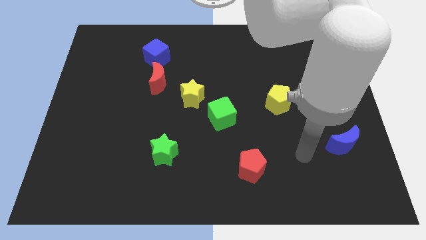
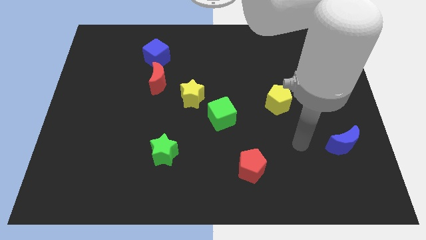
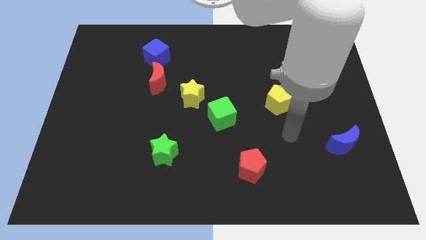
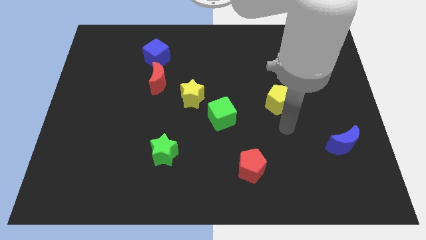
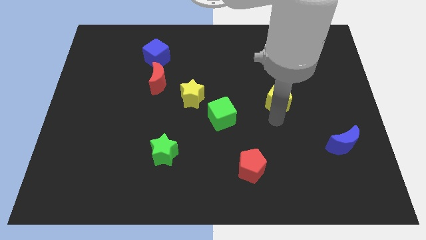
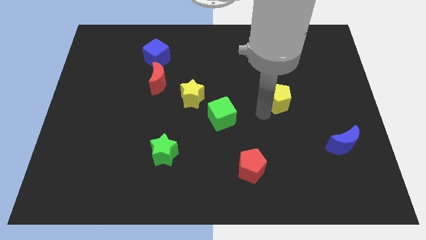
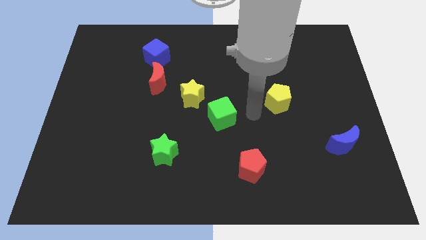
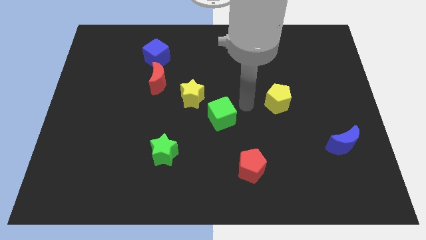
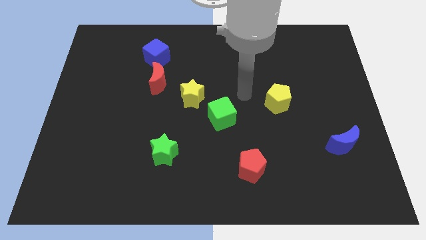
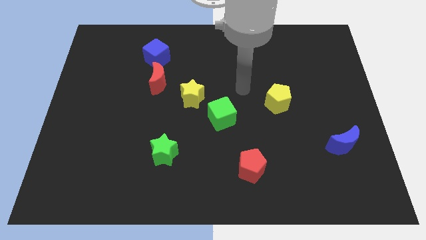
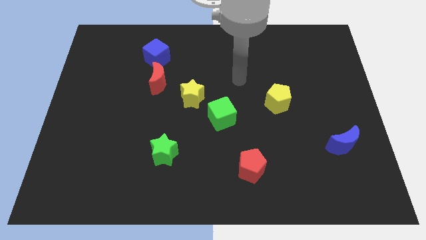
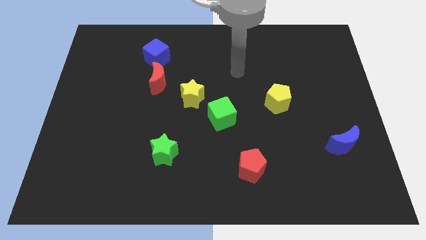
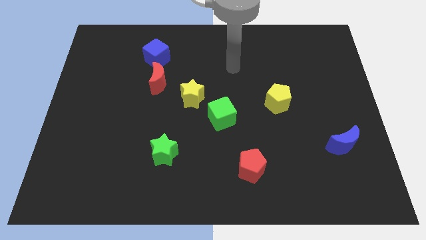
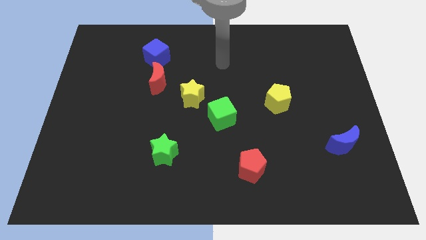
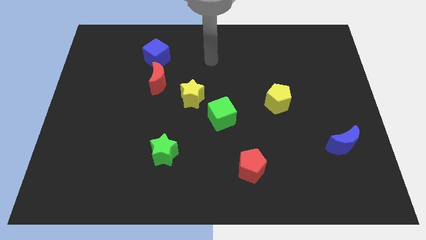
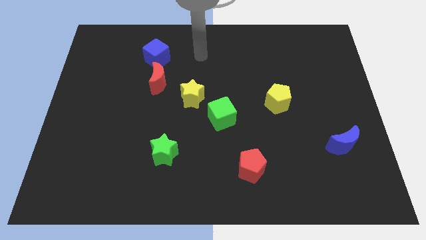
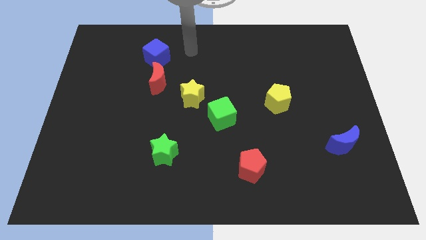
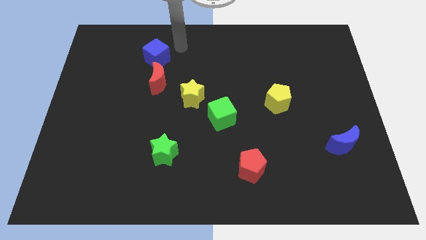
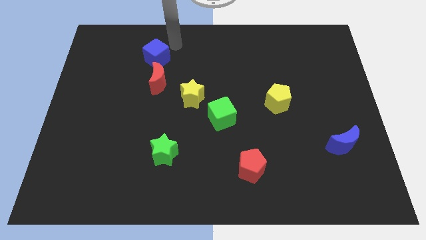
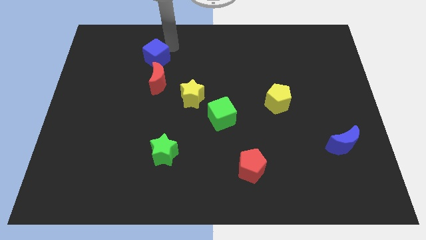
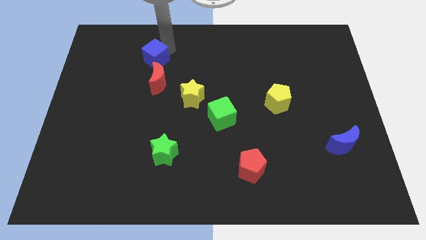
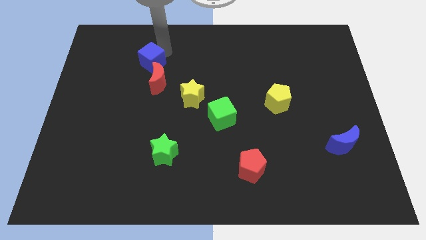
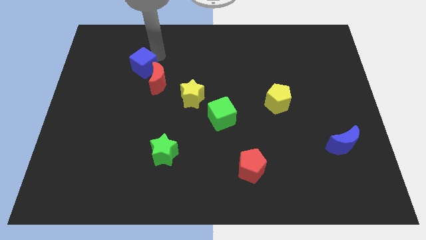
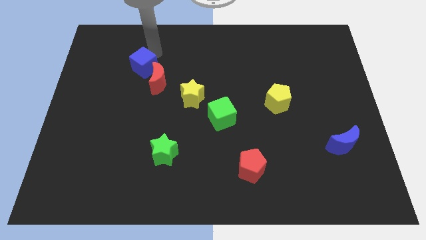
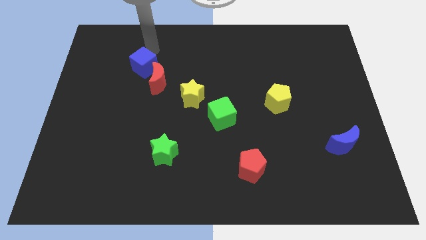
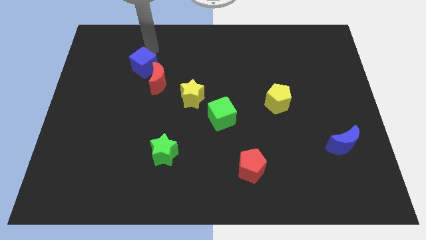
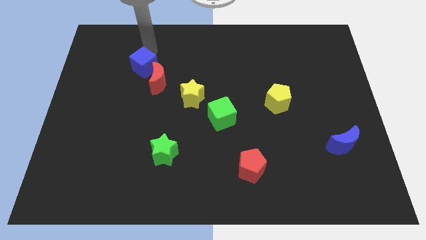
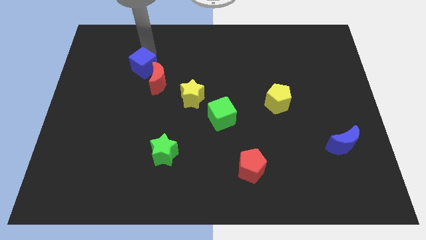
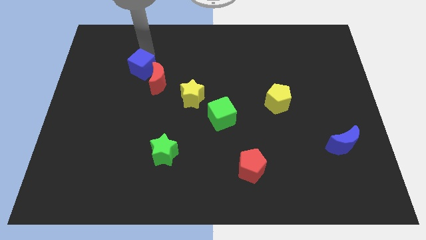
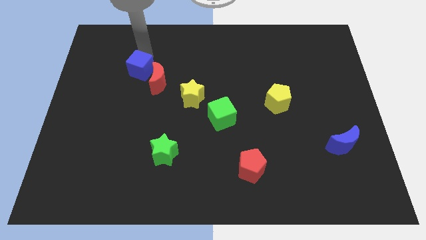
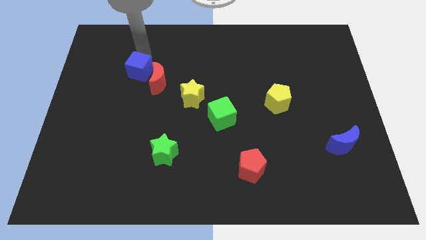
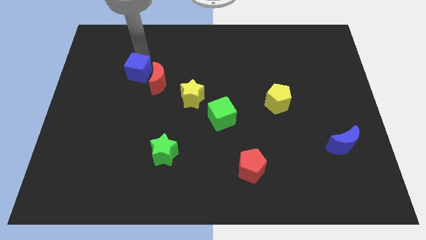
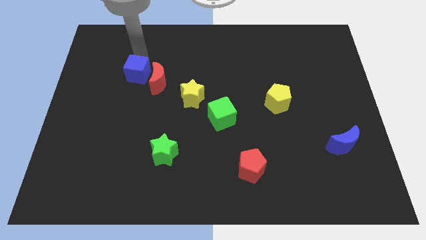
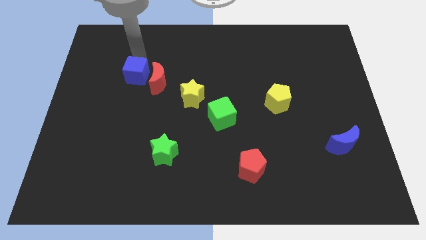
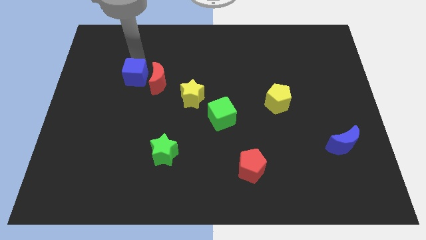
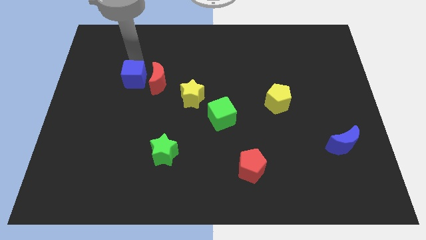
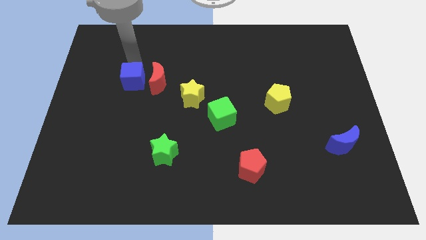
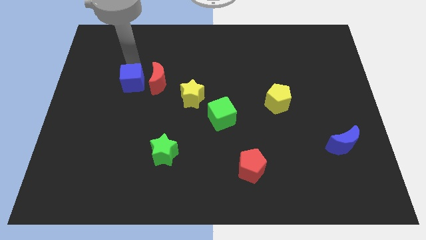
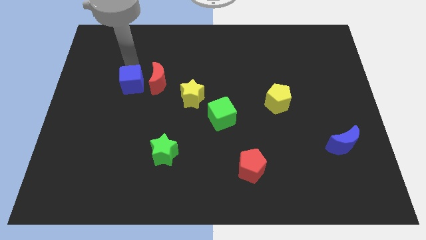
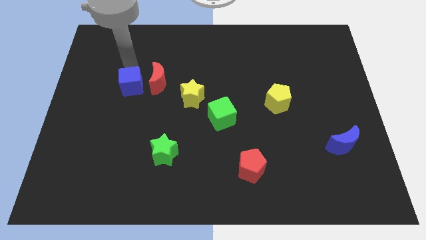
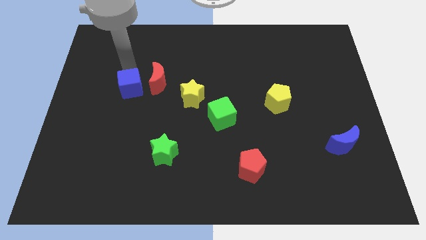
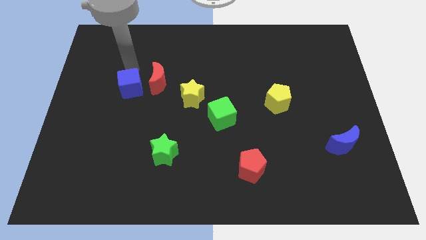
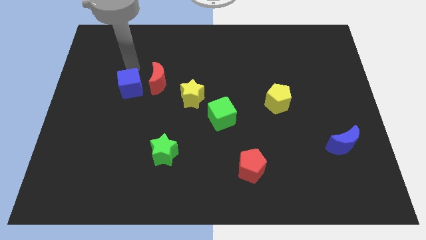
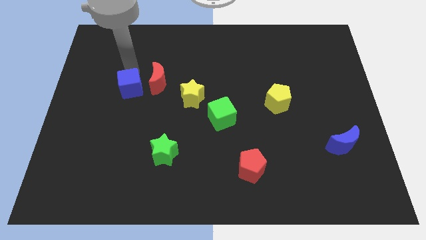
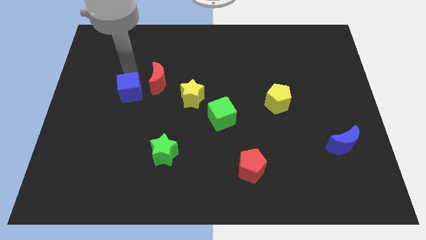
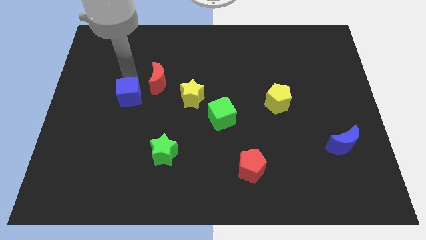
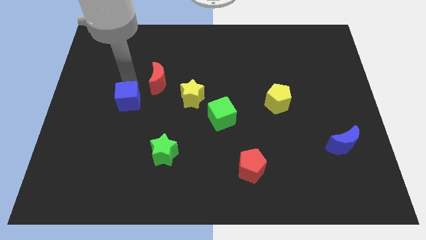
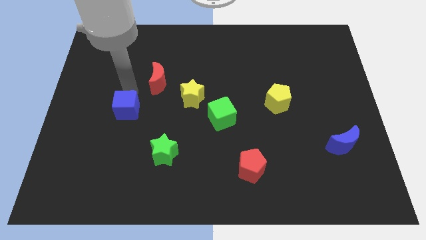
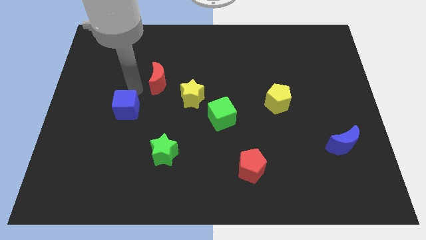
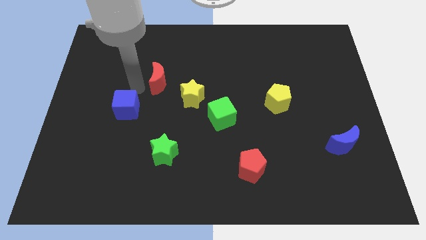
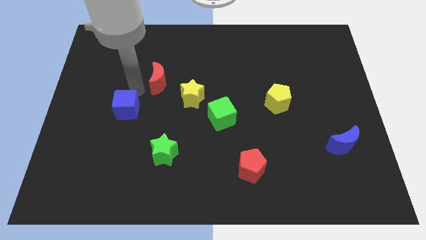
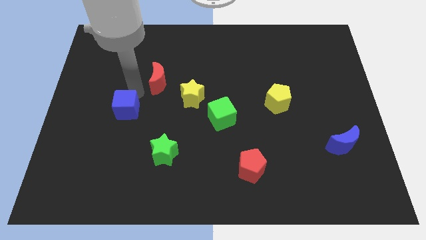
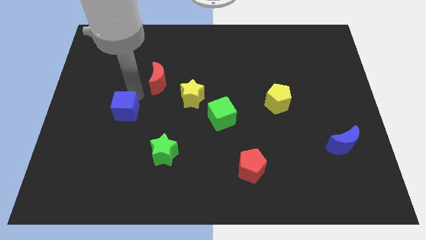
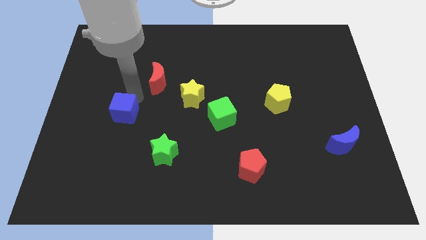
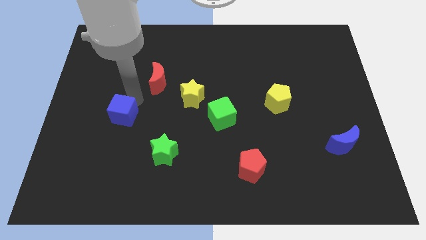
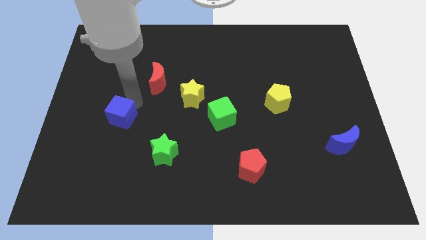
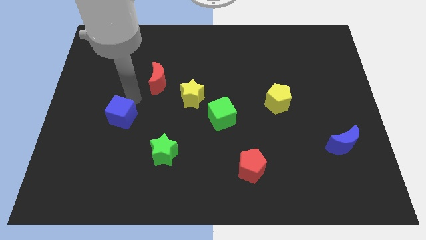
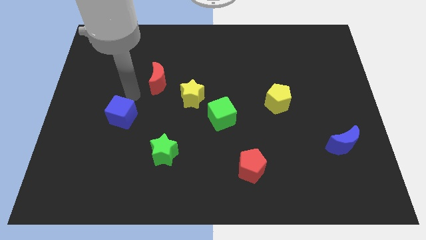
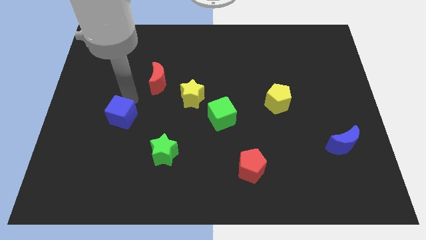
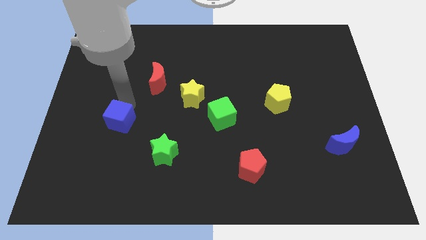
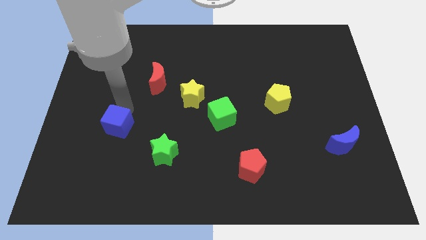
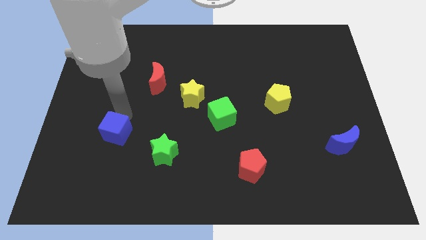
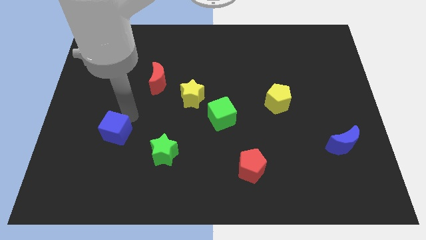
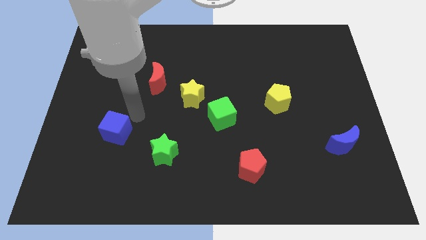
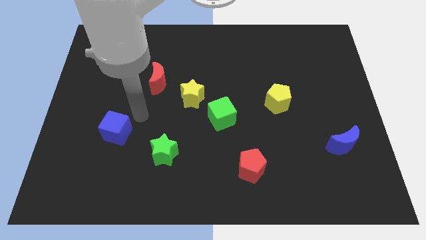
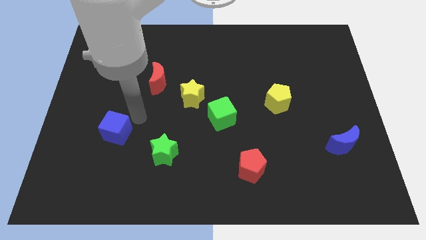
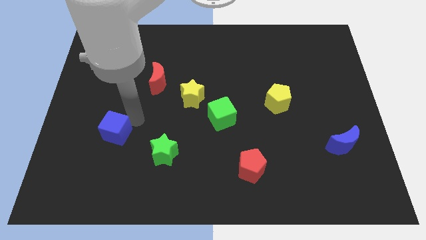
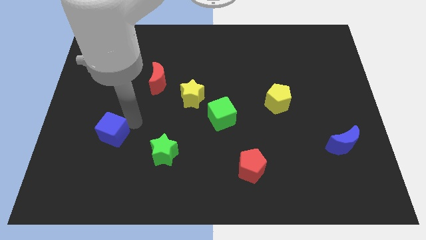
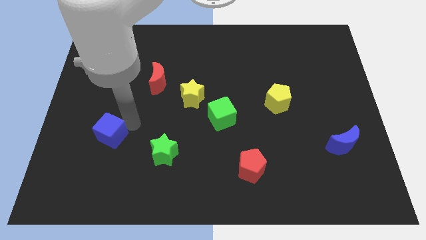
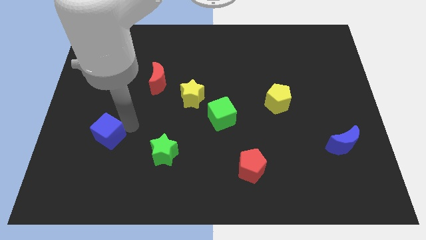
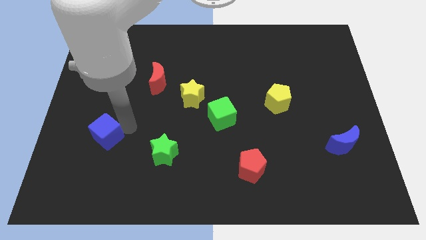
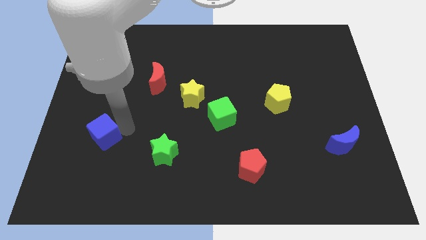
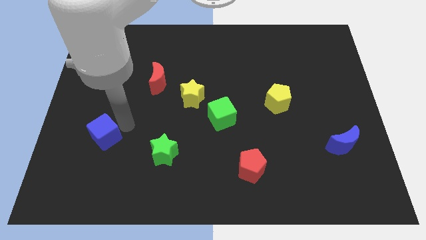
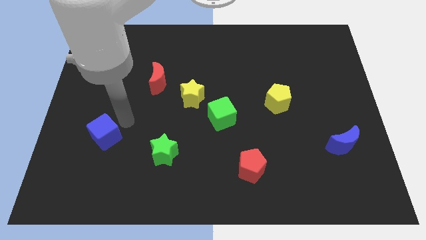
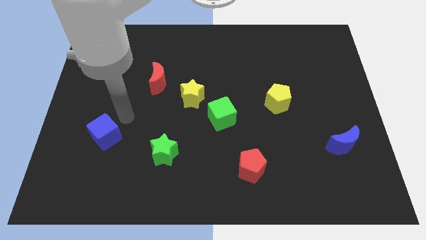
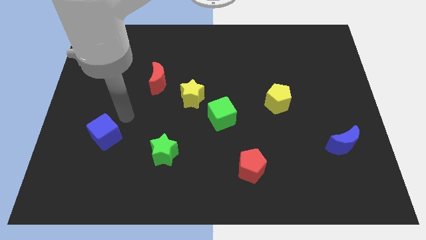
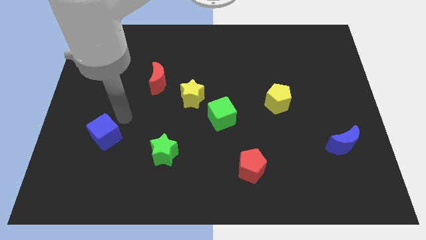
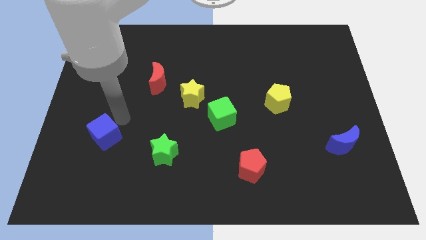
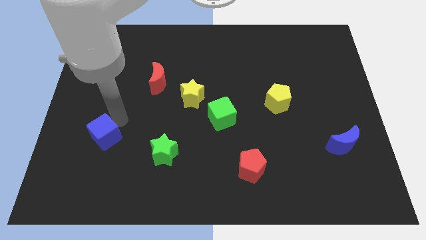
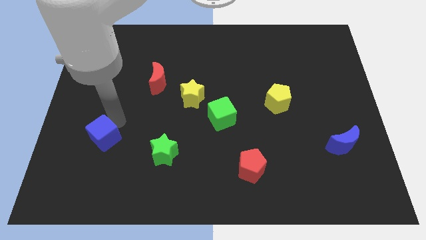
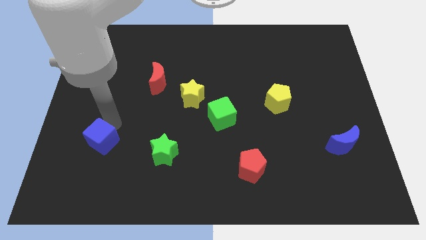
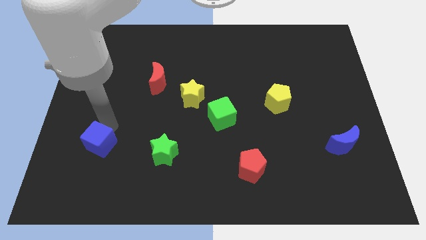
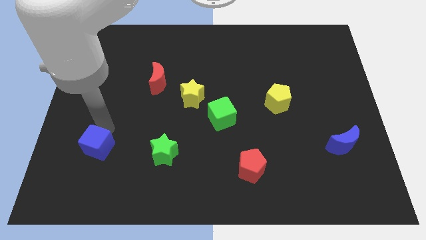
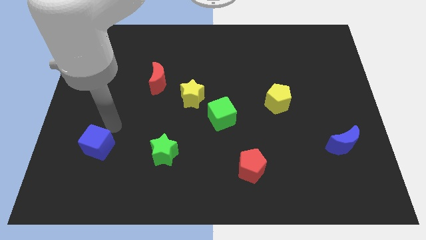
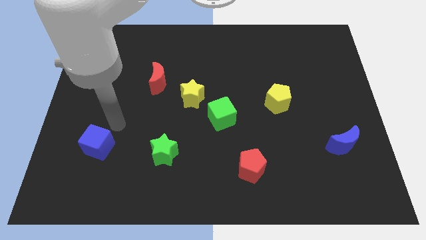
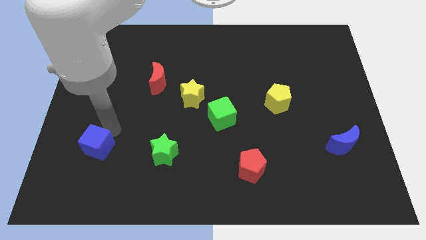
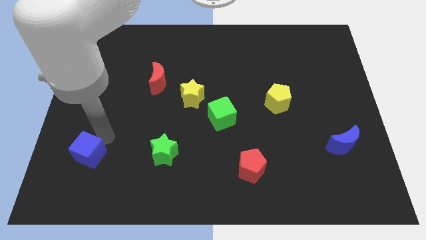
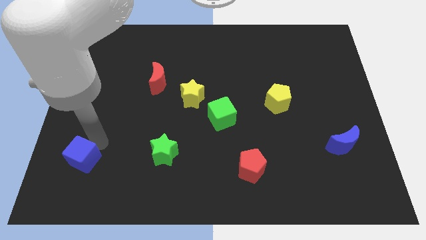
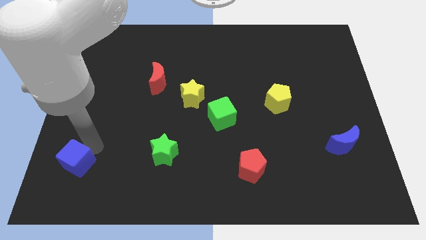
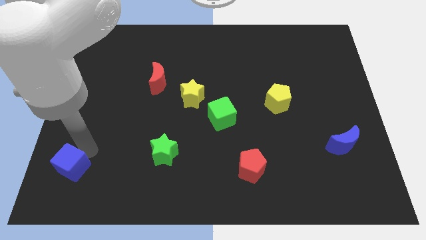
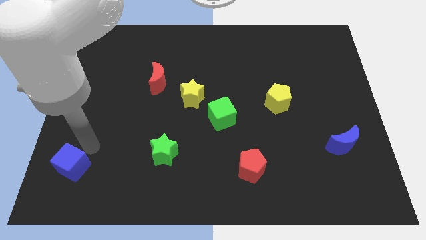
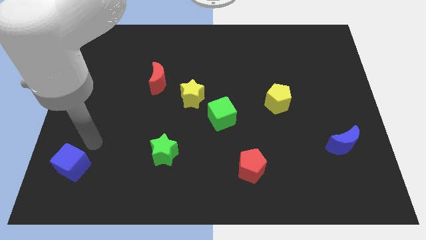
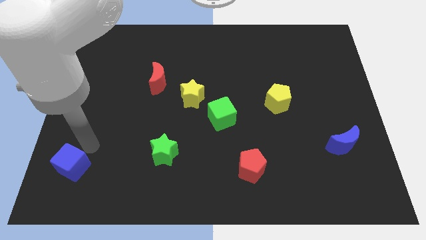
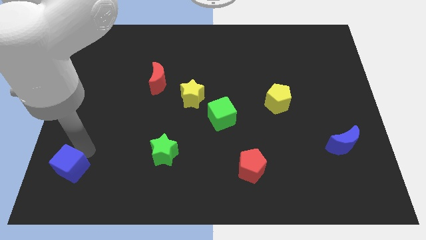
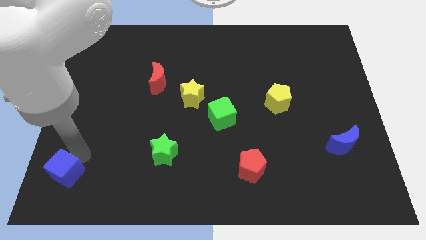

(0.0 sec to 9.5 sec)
push the blue cube to the bottom left of the board
